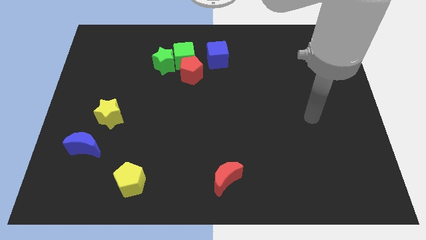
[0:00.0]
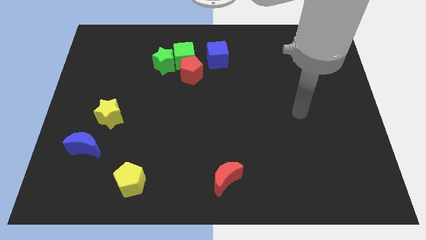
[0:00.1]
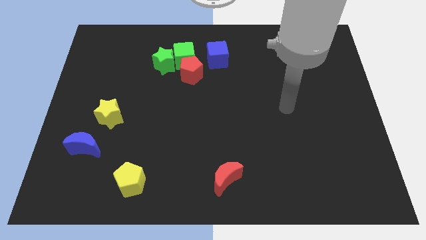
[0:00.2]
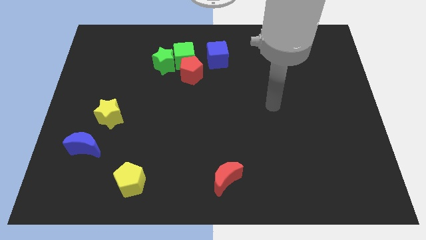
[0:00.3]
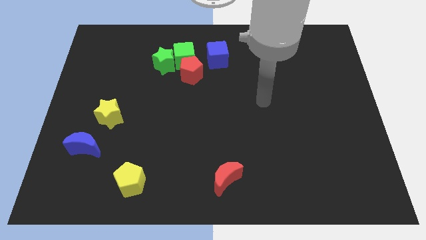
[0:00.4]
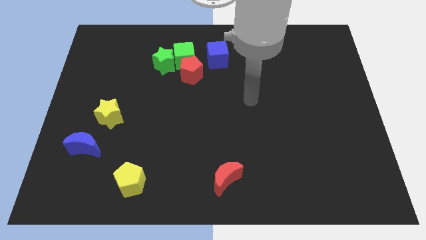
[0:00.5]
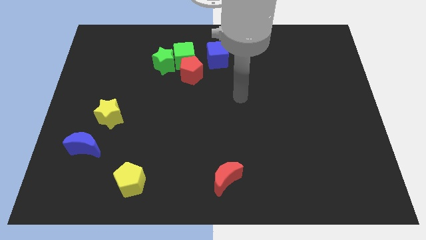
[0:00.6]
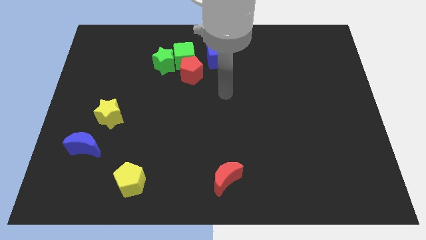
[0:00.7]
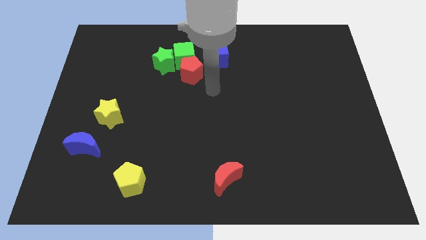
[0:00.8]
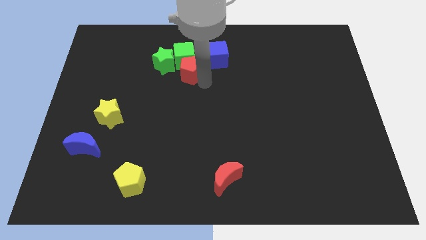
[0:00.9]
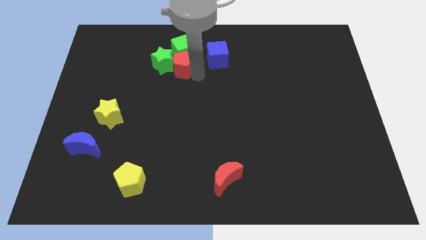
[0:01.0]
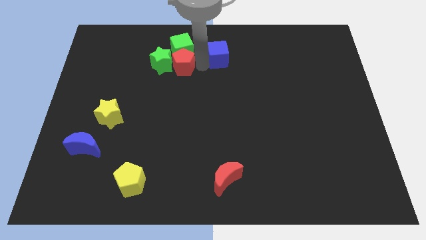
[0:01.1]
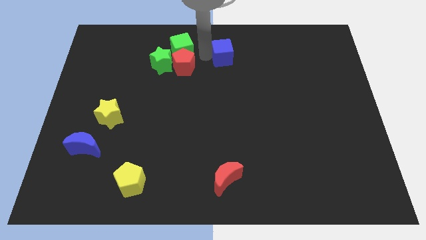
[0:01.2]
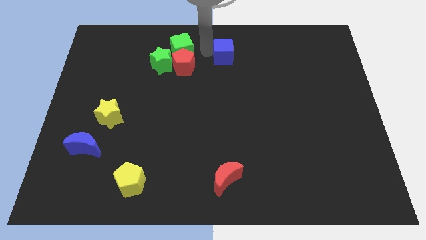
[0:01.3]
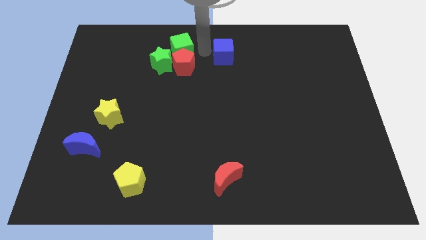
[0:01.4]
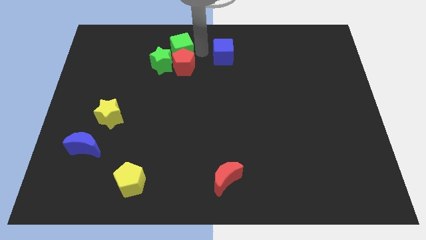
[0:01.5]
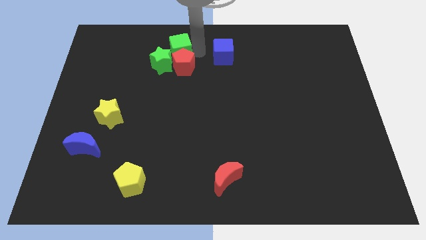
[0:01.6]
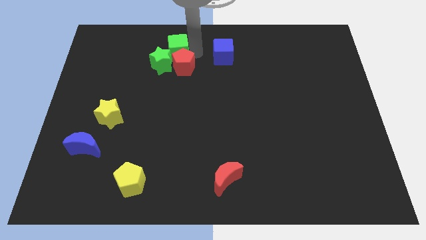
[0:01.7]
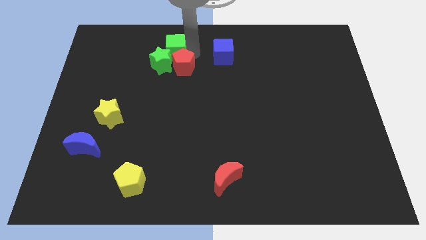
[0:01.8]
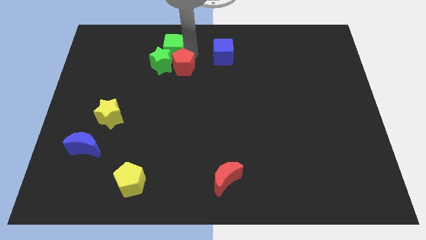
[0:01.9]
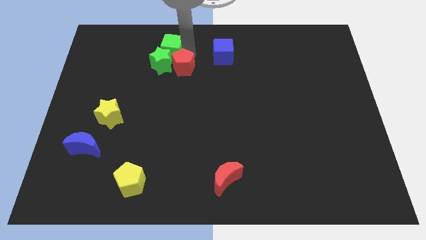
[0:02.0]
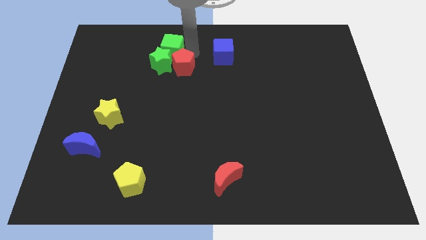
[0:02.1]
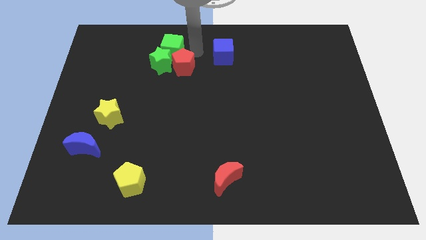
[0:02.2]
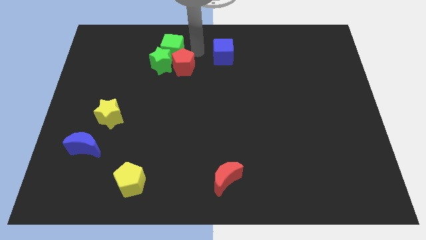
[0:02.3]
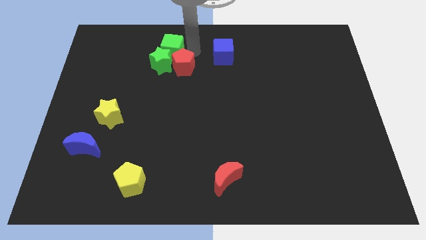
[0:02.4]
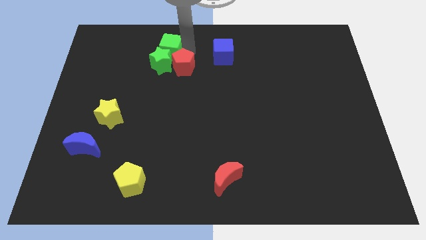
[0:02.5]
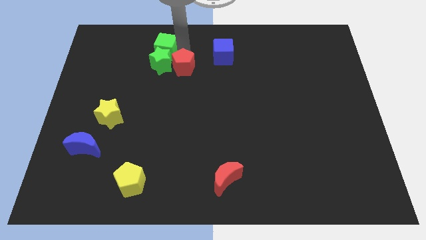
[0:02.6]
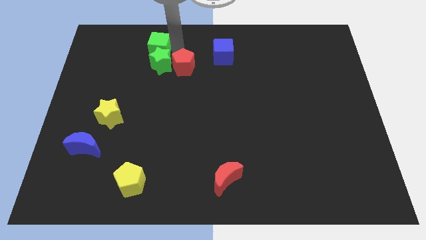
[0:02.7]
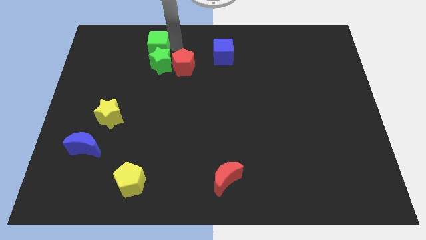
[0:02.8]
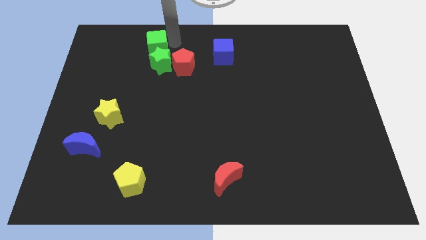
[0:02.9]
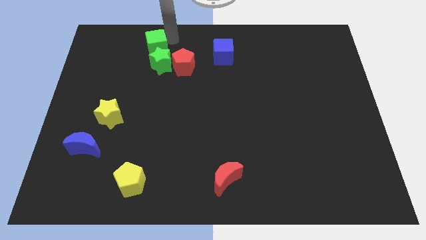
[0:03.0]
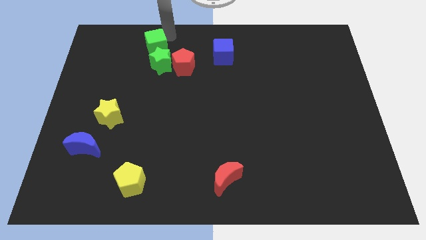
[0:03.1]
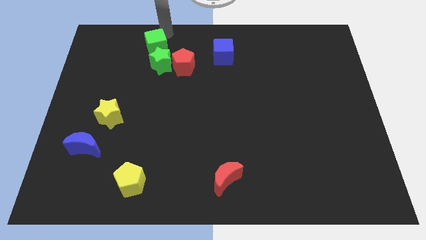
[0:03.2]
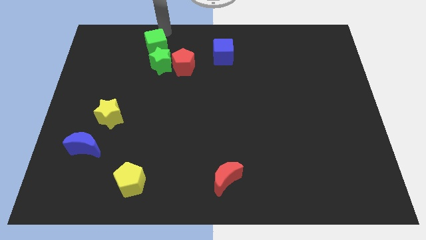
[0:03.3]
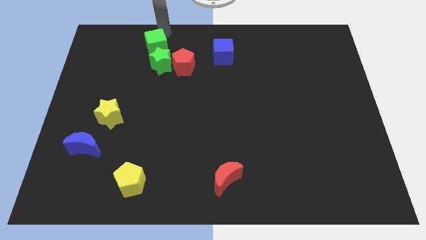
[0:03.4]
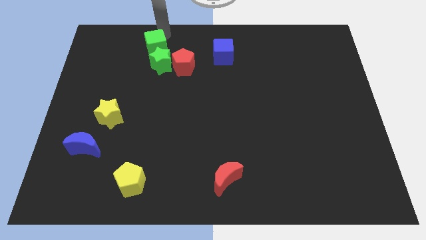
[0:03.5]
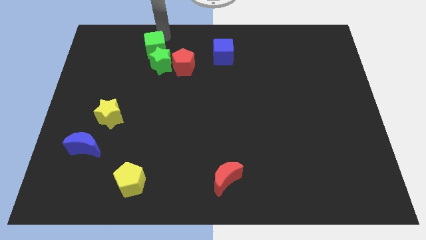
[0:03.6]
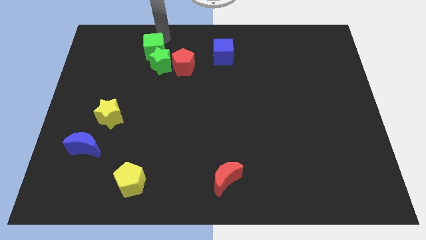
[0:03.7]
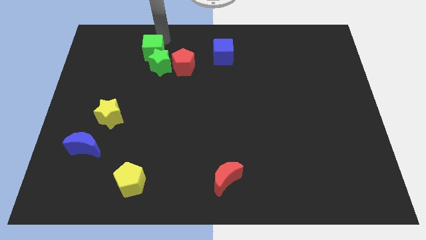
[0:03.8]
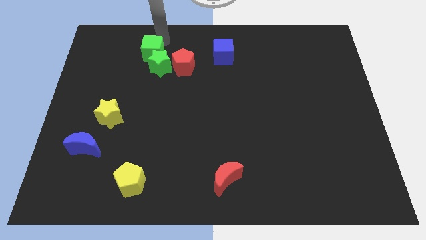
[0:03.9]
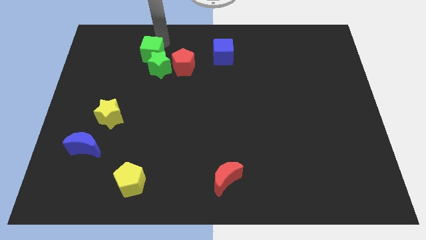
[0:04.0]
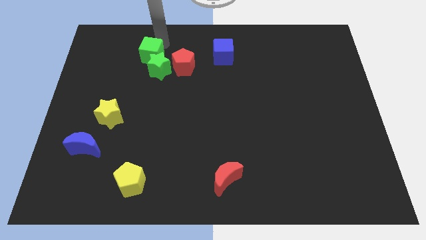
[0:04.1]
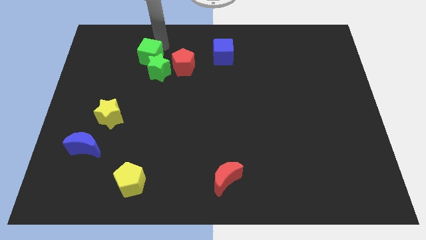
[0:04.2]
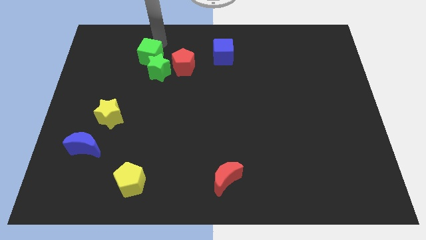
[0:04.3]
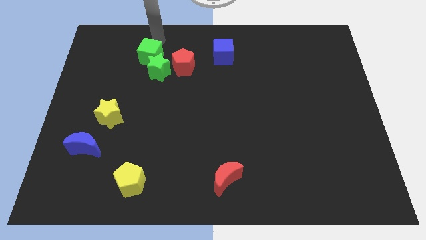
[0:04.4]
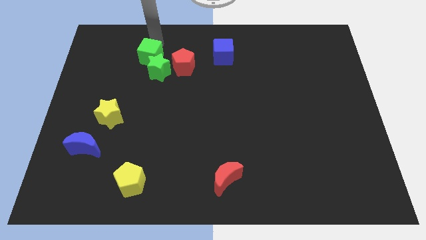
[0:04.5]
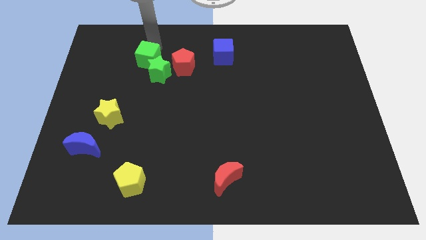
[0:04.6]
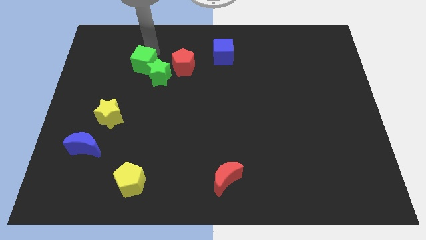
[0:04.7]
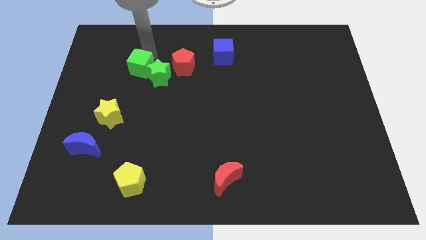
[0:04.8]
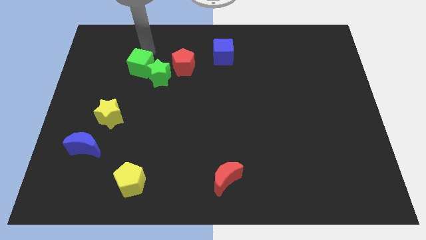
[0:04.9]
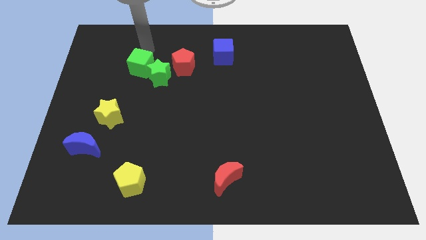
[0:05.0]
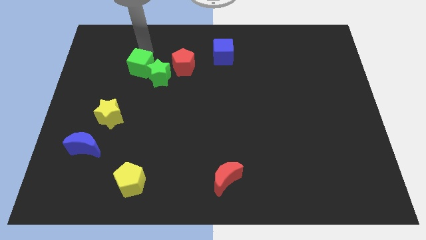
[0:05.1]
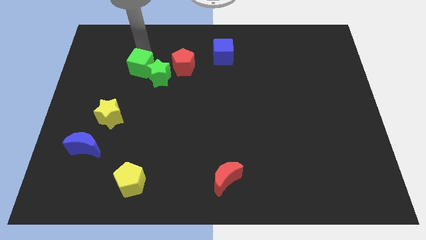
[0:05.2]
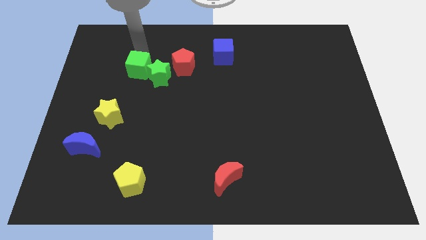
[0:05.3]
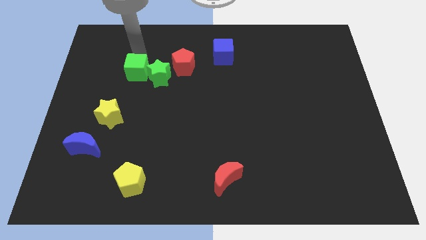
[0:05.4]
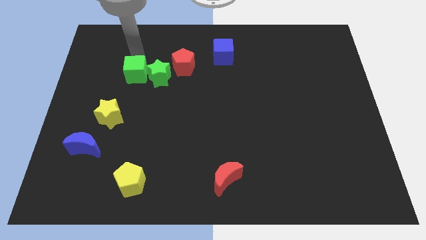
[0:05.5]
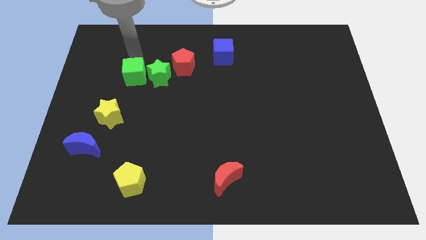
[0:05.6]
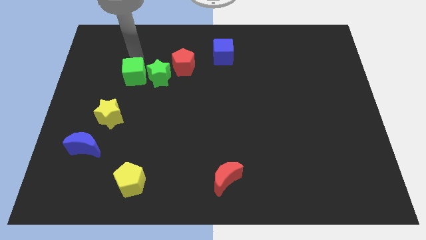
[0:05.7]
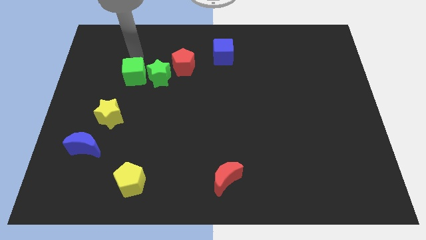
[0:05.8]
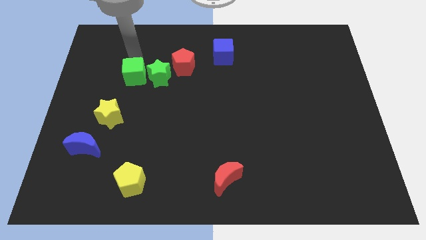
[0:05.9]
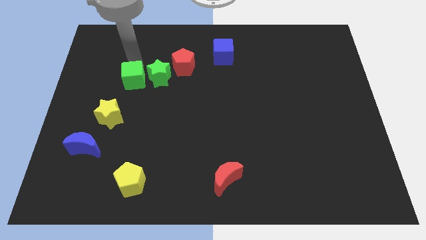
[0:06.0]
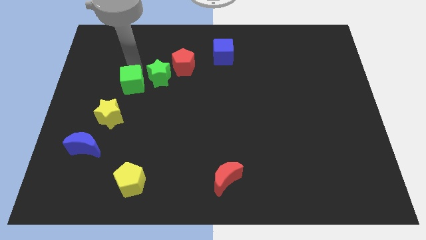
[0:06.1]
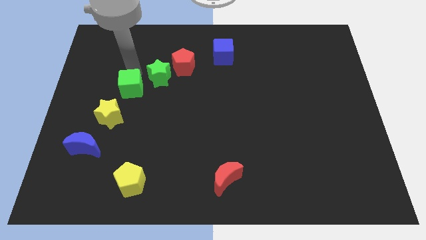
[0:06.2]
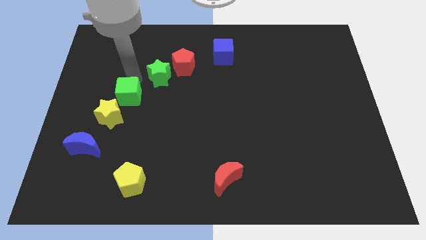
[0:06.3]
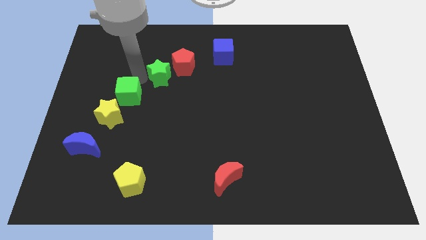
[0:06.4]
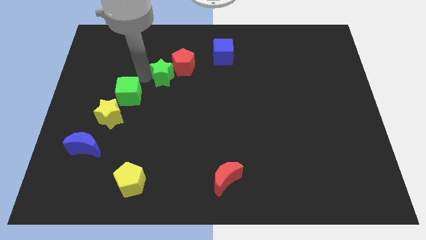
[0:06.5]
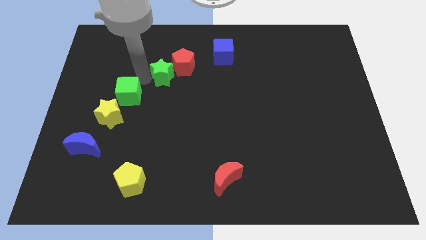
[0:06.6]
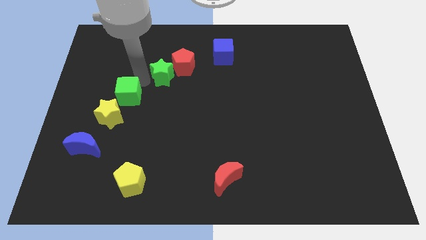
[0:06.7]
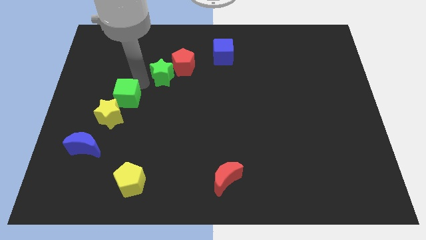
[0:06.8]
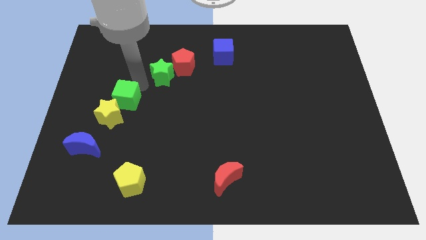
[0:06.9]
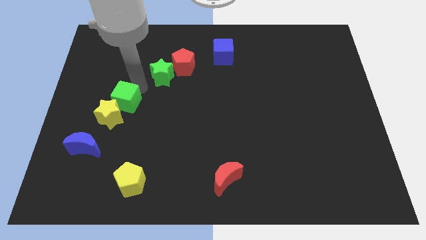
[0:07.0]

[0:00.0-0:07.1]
put the green cube next to the yellow star
